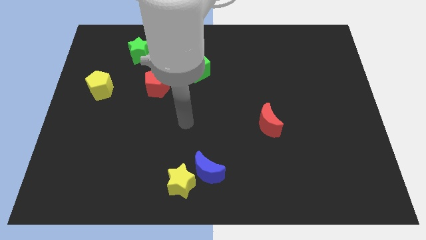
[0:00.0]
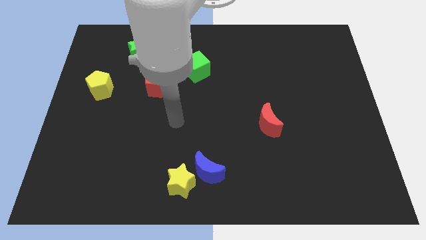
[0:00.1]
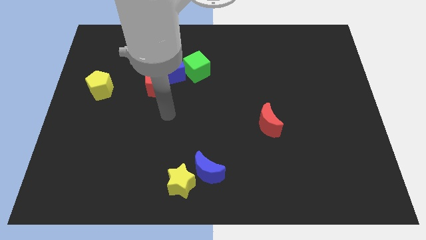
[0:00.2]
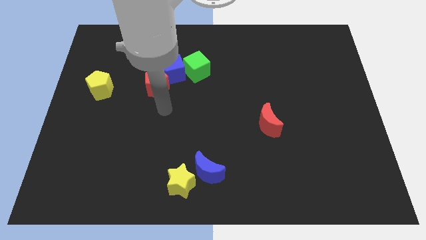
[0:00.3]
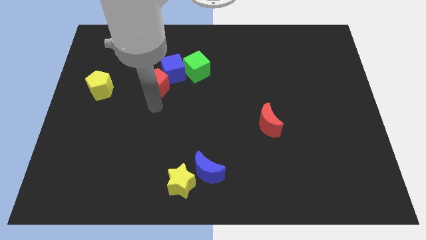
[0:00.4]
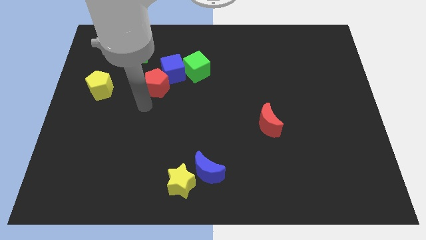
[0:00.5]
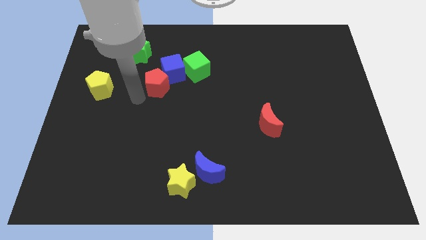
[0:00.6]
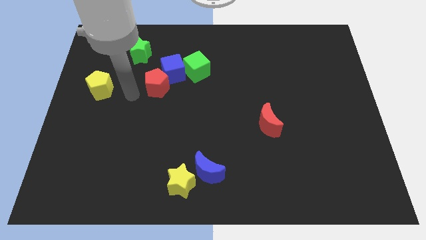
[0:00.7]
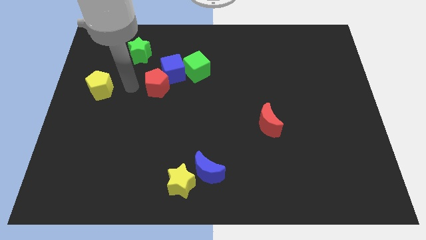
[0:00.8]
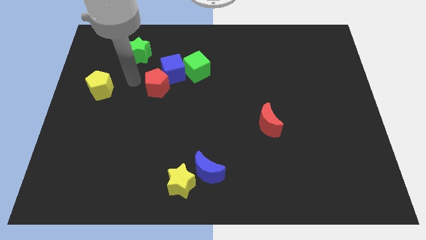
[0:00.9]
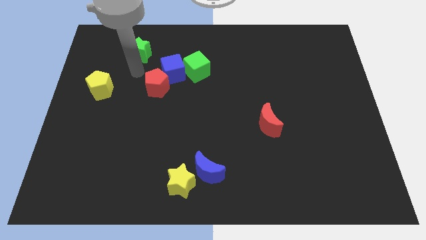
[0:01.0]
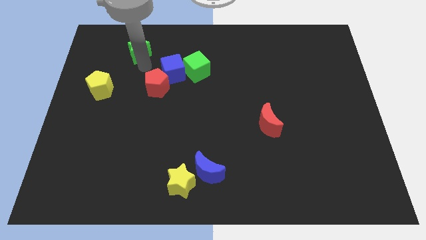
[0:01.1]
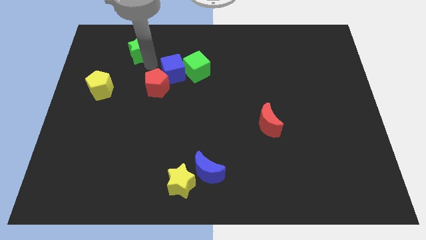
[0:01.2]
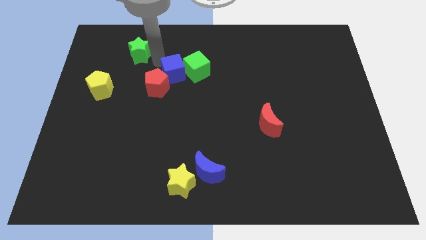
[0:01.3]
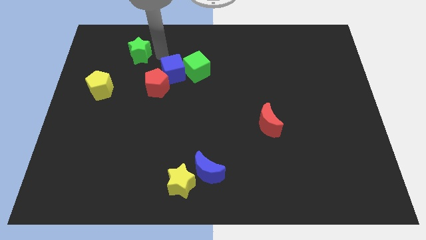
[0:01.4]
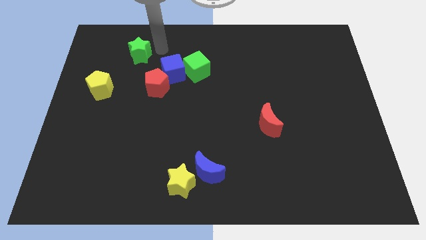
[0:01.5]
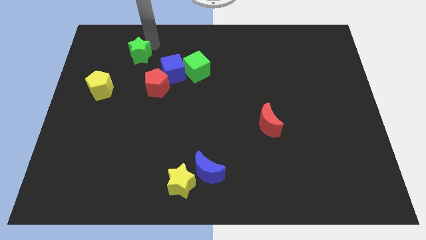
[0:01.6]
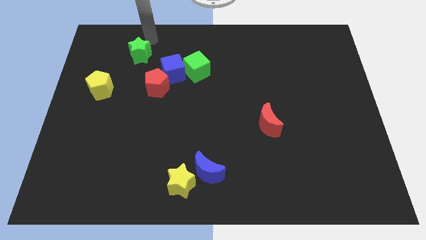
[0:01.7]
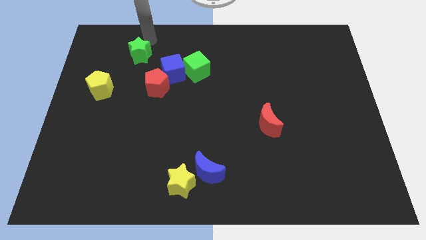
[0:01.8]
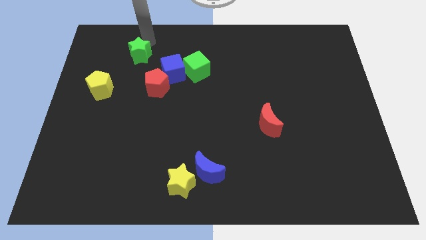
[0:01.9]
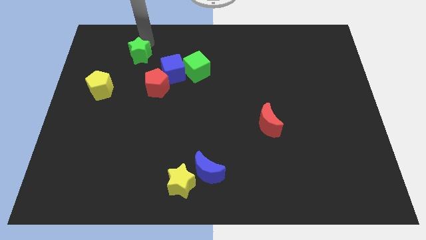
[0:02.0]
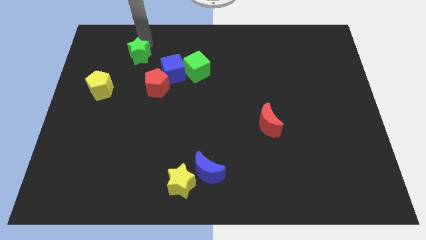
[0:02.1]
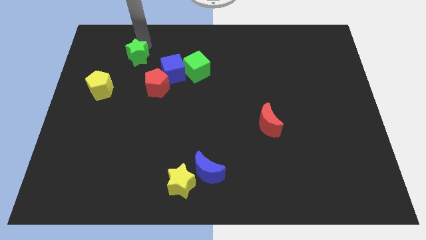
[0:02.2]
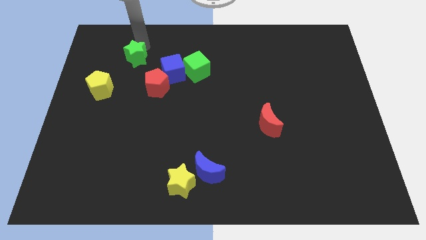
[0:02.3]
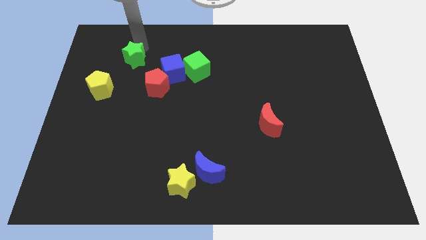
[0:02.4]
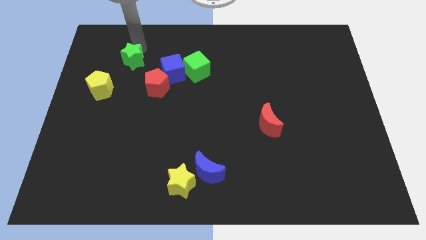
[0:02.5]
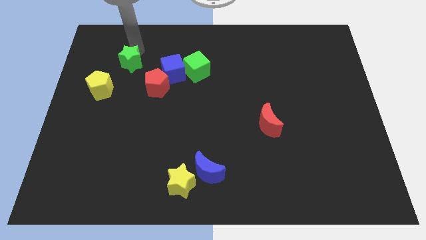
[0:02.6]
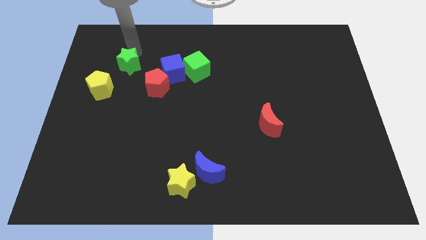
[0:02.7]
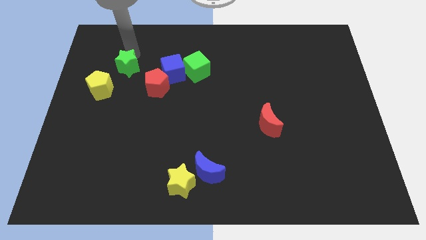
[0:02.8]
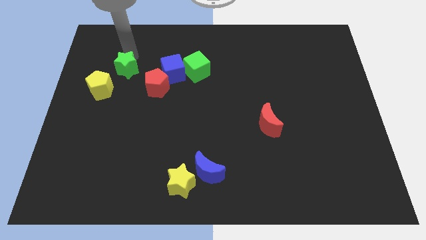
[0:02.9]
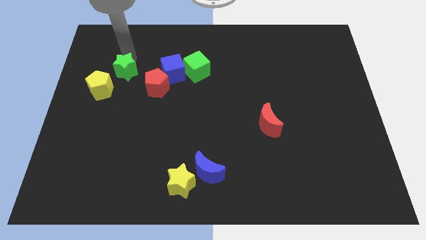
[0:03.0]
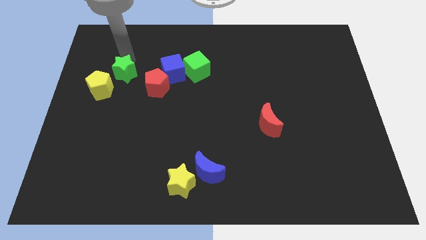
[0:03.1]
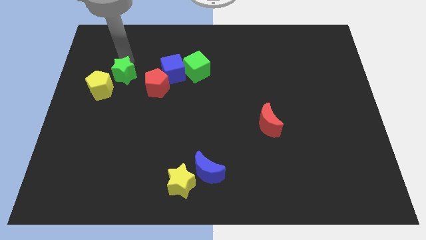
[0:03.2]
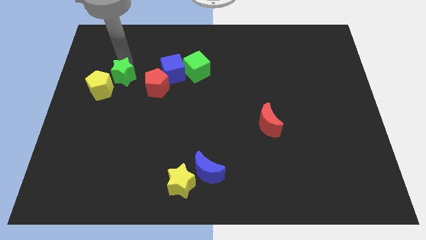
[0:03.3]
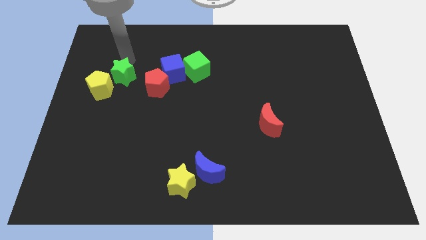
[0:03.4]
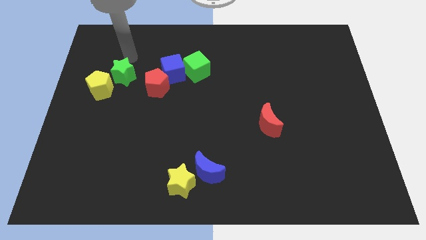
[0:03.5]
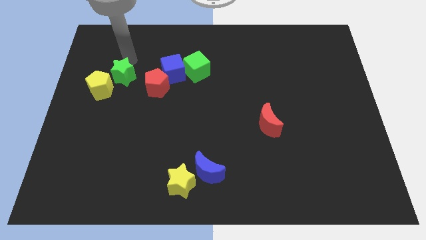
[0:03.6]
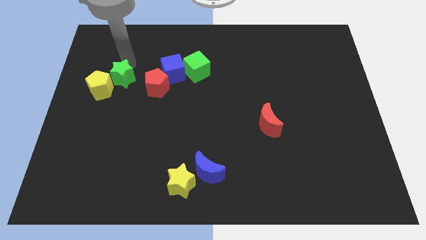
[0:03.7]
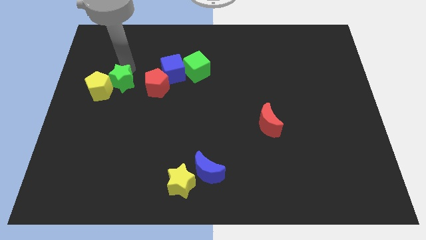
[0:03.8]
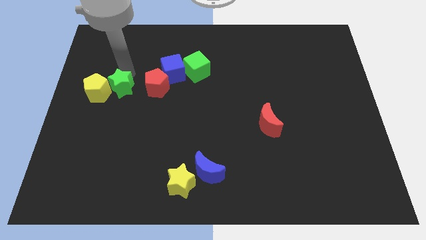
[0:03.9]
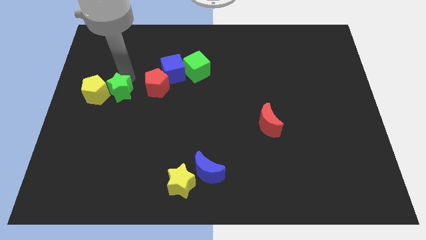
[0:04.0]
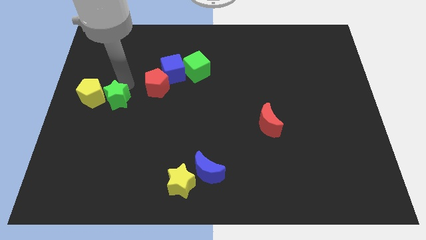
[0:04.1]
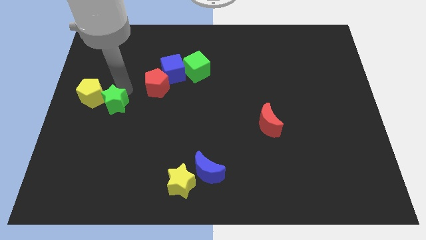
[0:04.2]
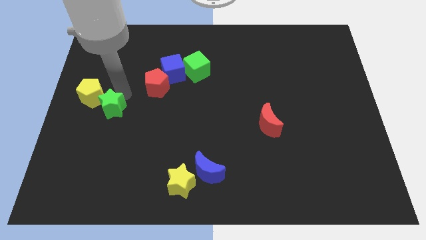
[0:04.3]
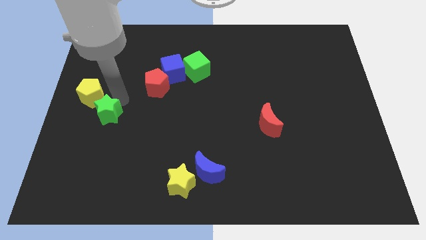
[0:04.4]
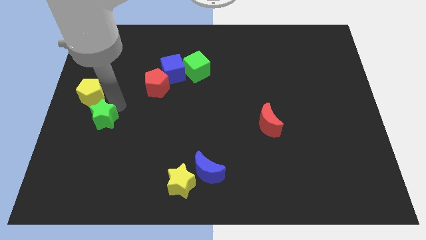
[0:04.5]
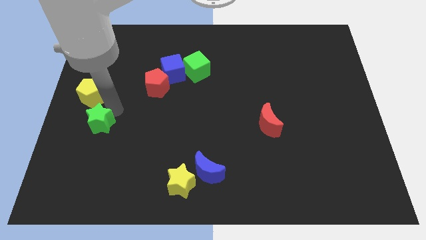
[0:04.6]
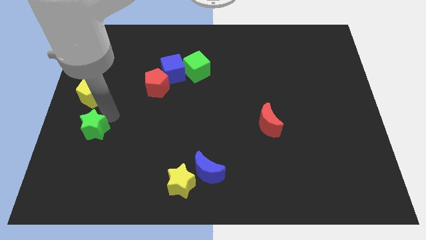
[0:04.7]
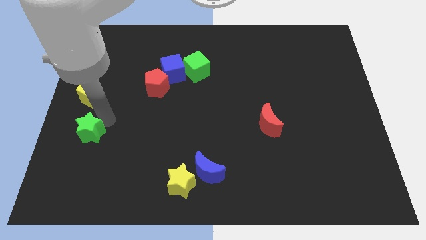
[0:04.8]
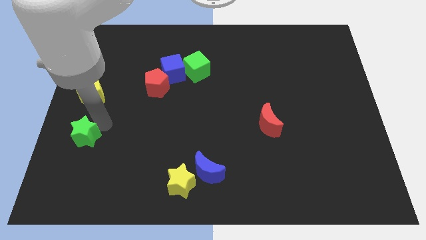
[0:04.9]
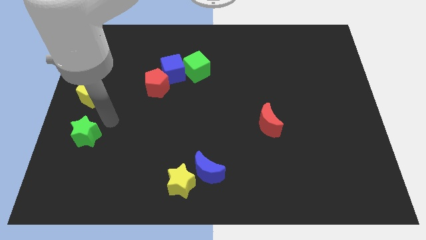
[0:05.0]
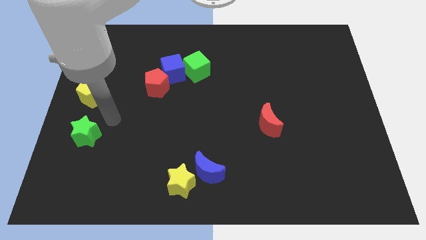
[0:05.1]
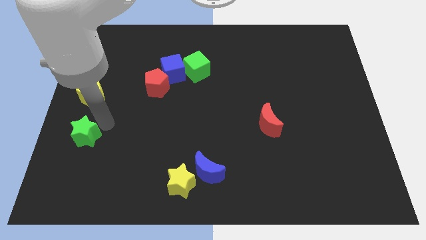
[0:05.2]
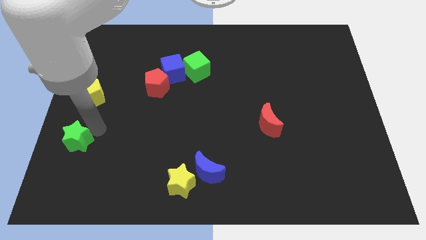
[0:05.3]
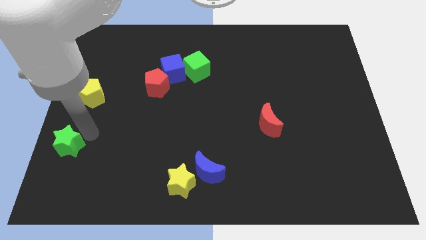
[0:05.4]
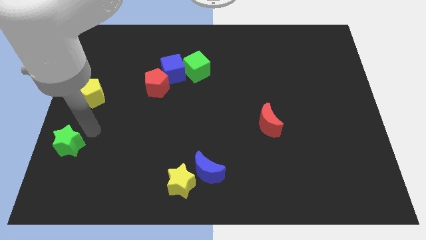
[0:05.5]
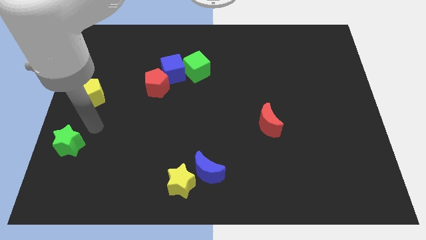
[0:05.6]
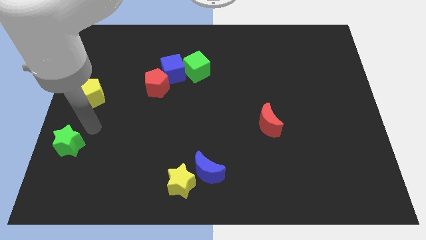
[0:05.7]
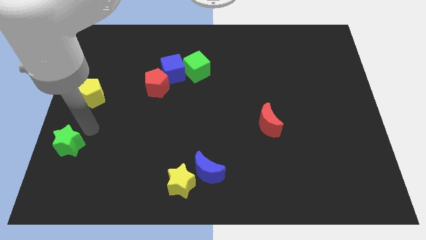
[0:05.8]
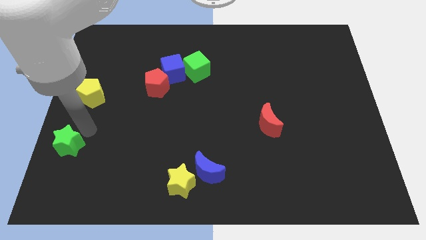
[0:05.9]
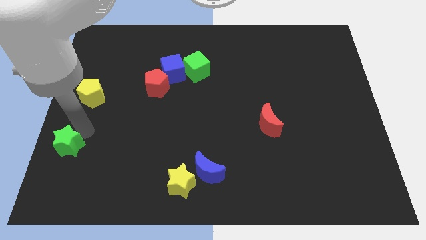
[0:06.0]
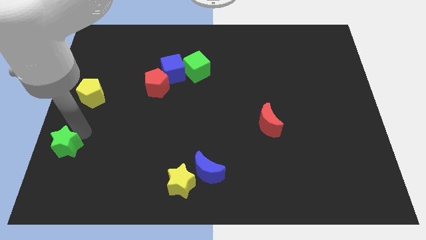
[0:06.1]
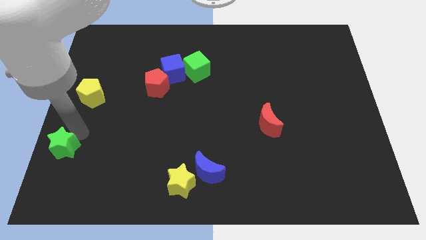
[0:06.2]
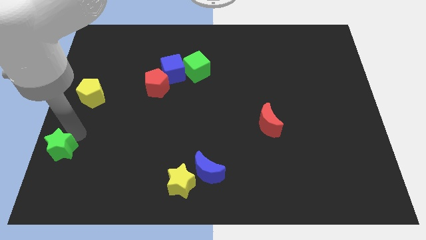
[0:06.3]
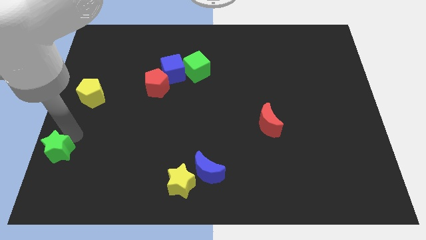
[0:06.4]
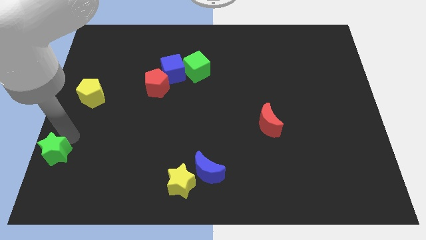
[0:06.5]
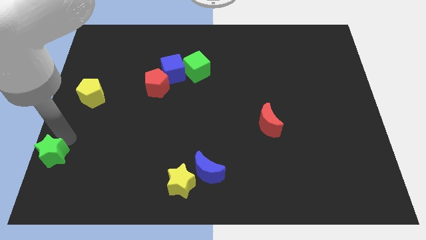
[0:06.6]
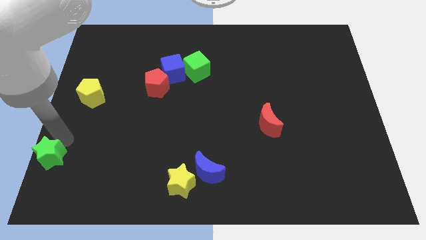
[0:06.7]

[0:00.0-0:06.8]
push the green star to the lower left corner
